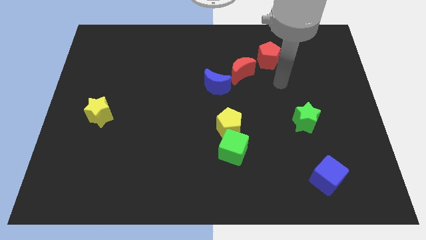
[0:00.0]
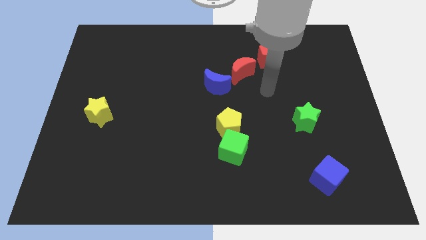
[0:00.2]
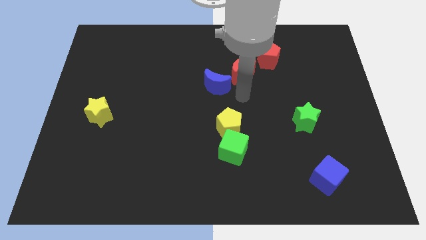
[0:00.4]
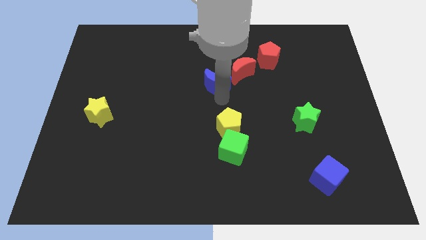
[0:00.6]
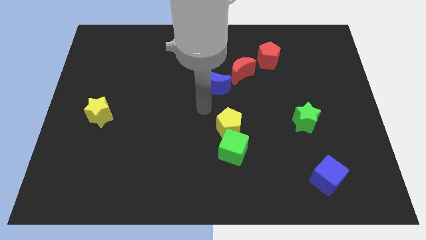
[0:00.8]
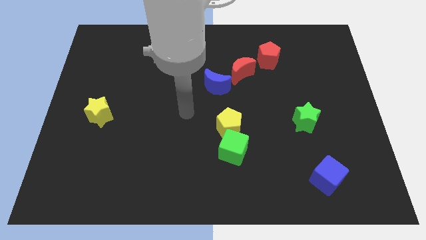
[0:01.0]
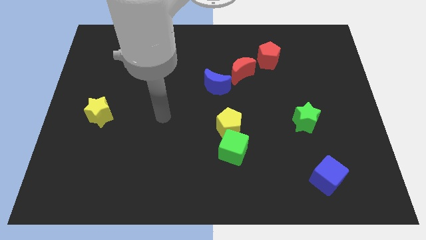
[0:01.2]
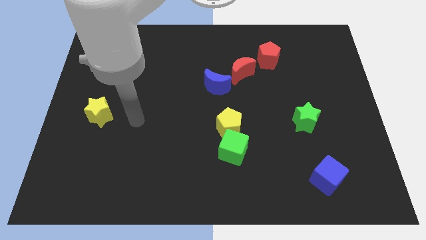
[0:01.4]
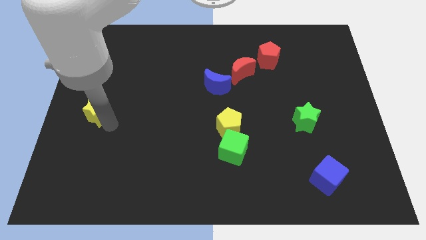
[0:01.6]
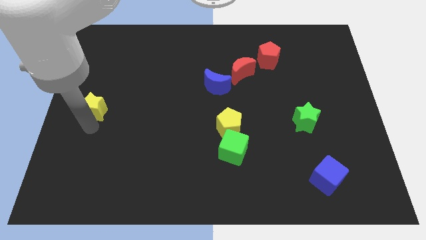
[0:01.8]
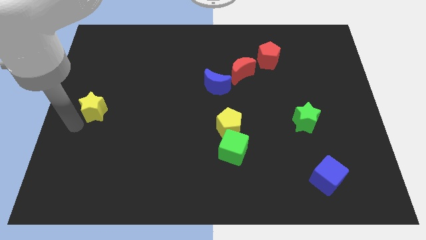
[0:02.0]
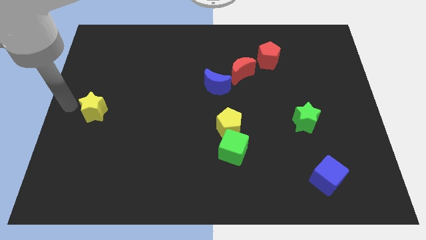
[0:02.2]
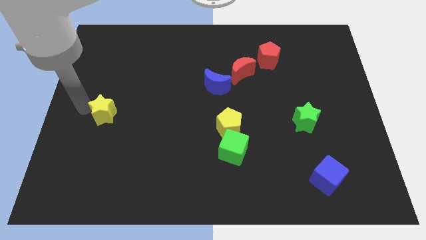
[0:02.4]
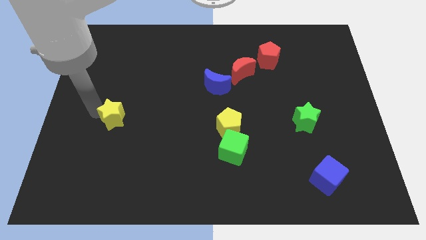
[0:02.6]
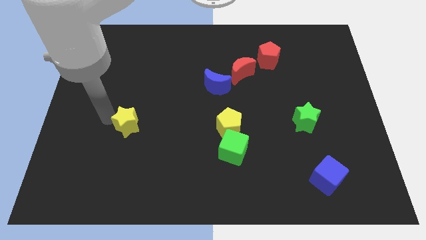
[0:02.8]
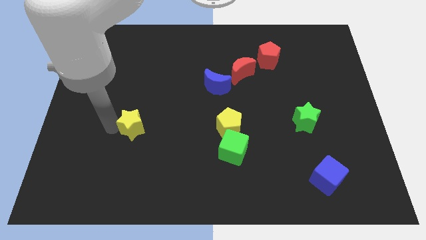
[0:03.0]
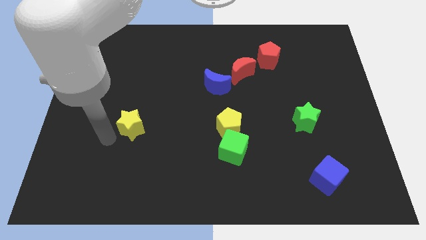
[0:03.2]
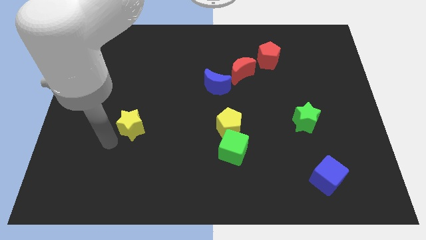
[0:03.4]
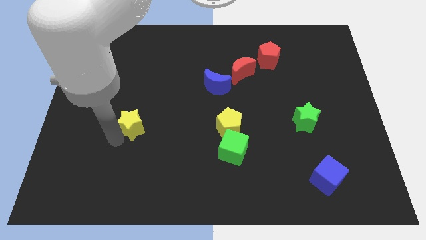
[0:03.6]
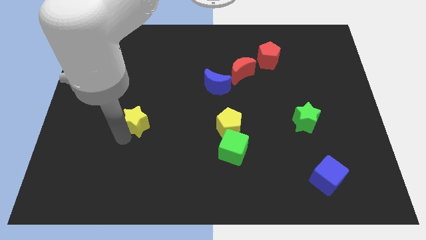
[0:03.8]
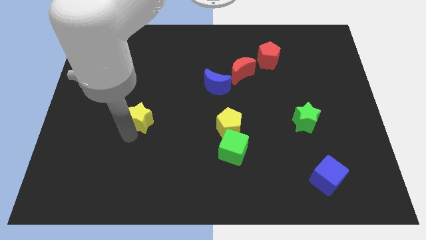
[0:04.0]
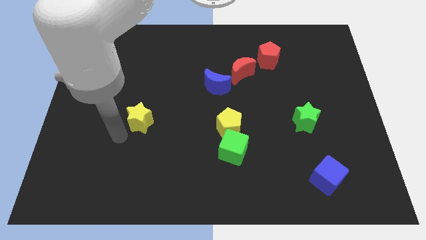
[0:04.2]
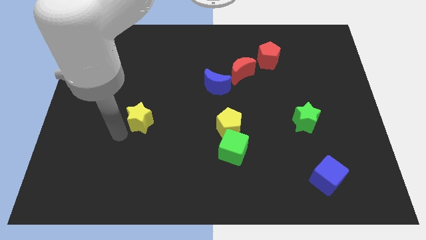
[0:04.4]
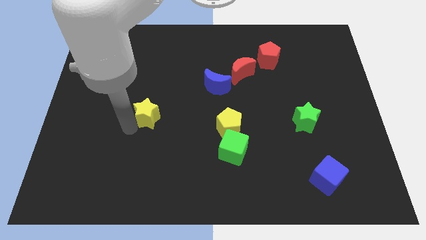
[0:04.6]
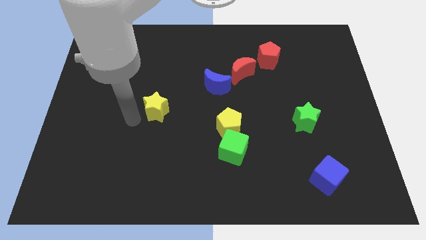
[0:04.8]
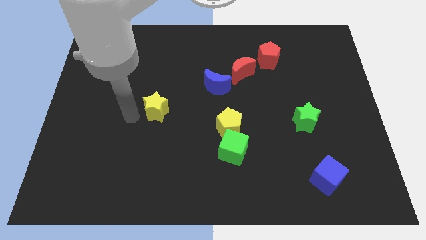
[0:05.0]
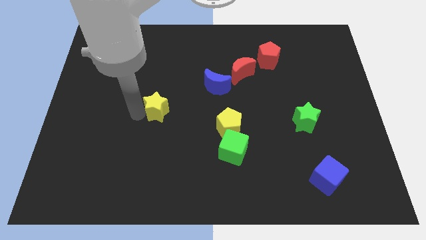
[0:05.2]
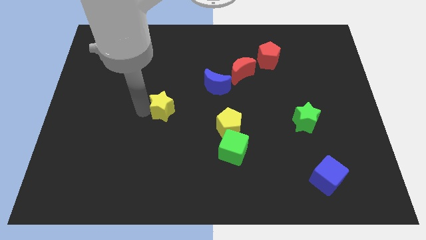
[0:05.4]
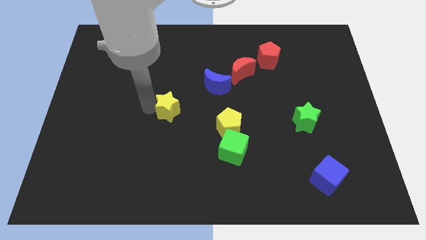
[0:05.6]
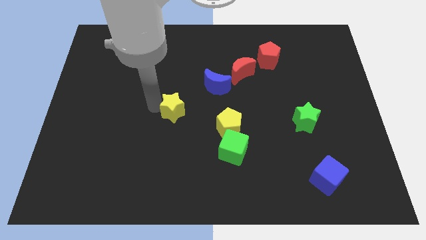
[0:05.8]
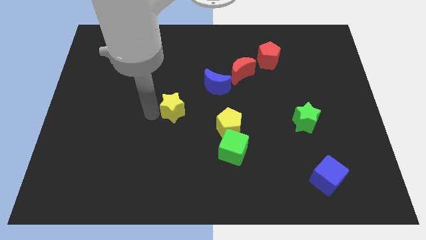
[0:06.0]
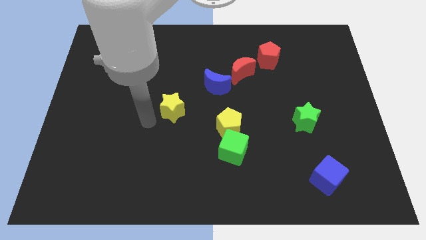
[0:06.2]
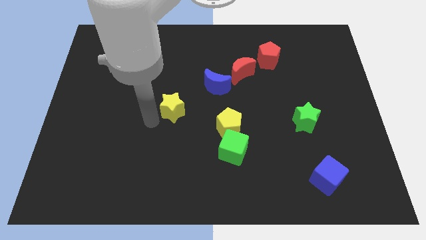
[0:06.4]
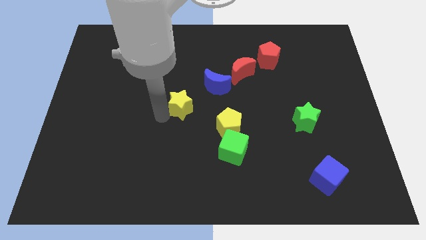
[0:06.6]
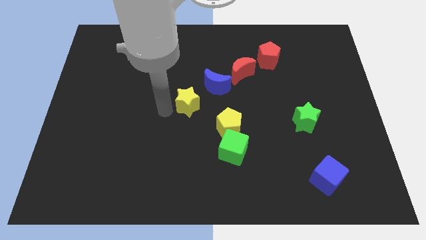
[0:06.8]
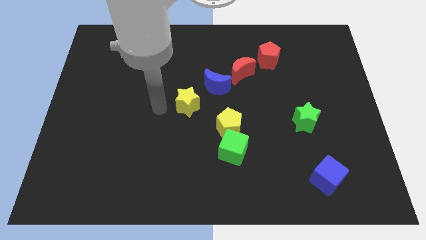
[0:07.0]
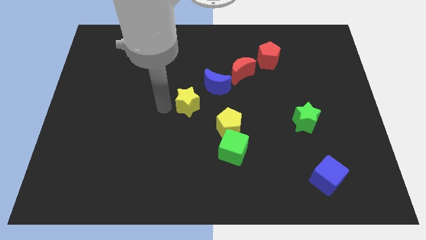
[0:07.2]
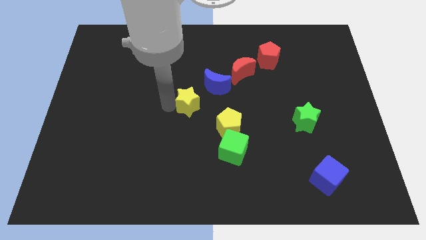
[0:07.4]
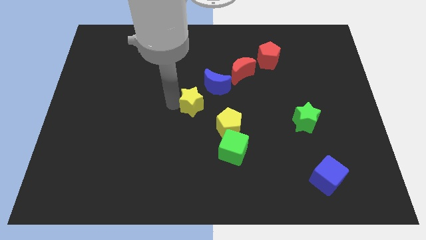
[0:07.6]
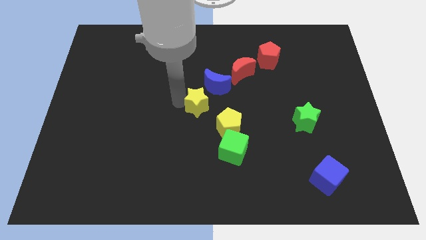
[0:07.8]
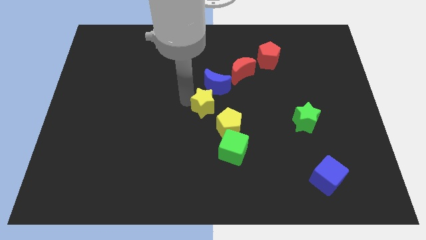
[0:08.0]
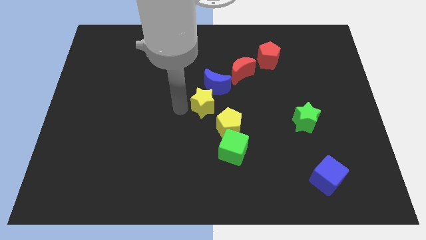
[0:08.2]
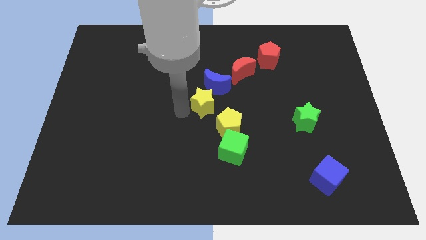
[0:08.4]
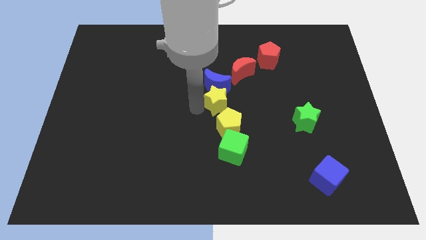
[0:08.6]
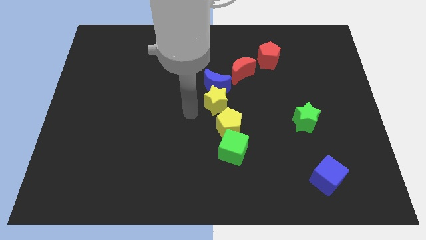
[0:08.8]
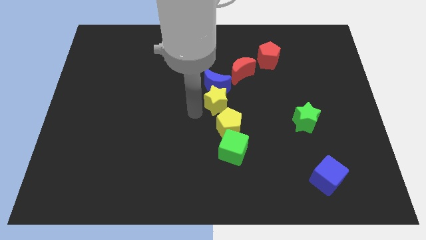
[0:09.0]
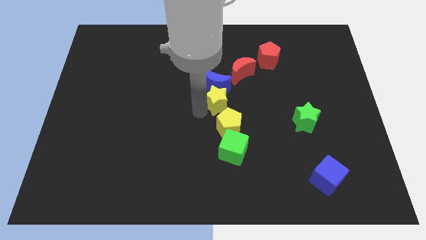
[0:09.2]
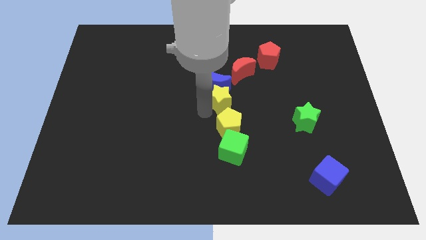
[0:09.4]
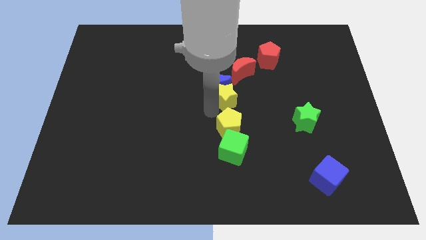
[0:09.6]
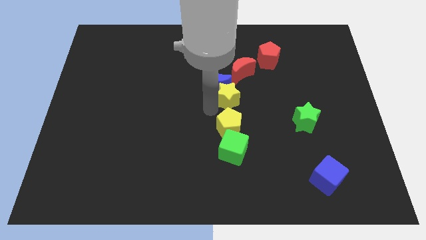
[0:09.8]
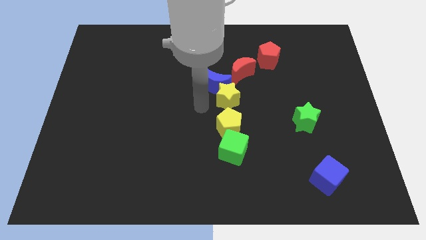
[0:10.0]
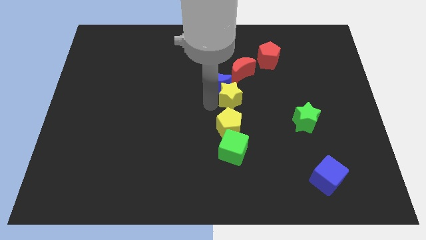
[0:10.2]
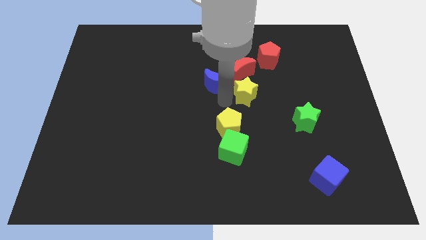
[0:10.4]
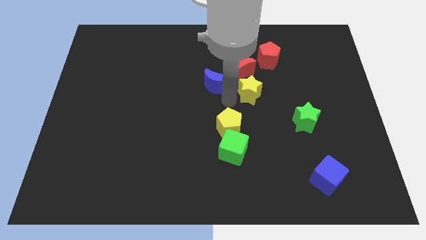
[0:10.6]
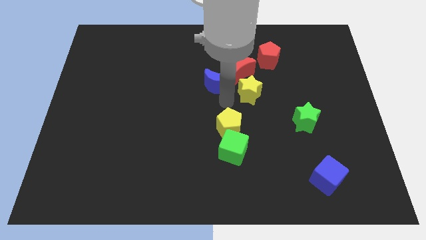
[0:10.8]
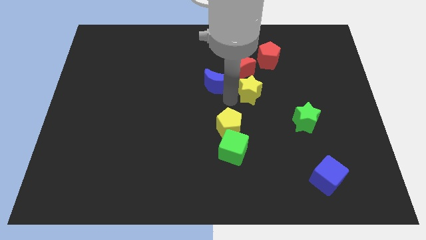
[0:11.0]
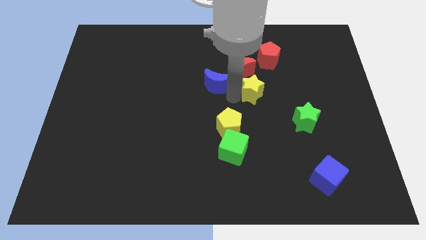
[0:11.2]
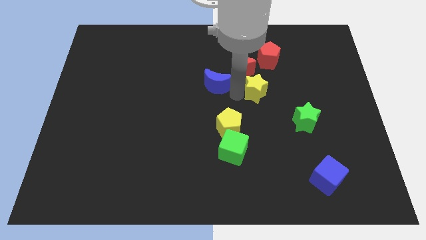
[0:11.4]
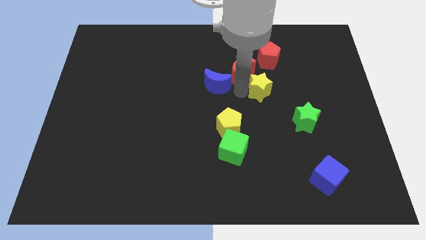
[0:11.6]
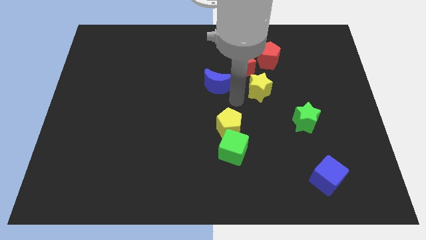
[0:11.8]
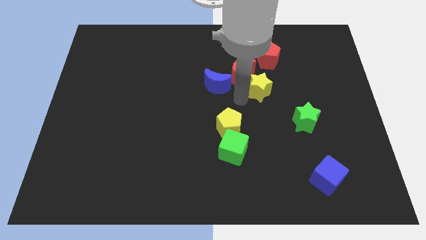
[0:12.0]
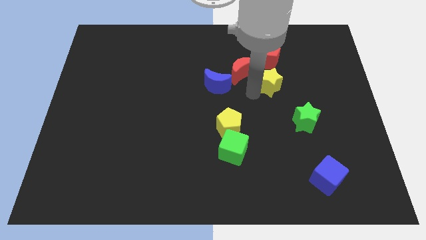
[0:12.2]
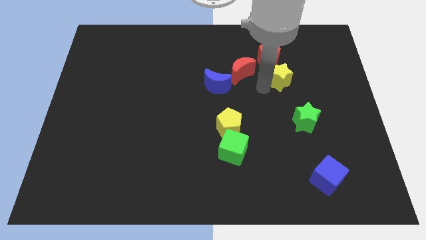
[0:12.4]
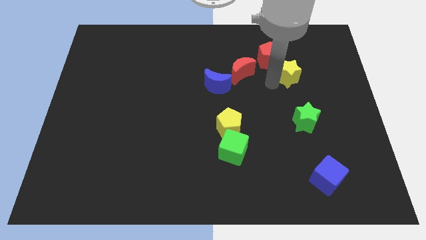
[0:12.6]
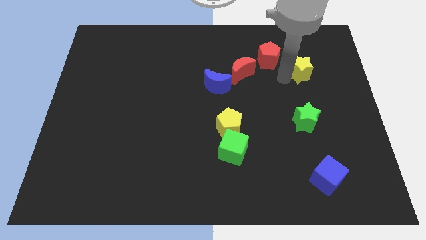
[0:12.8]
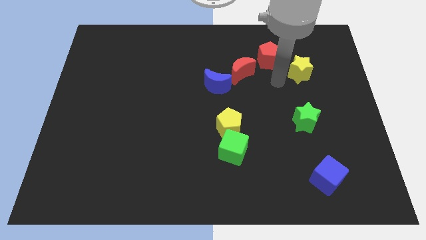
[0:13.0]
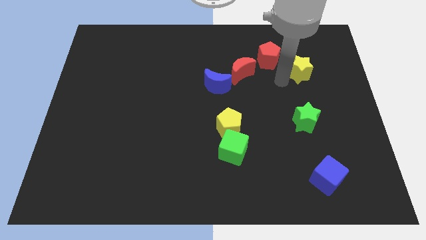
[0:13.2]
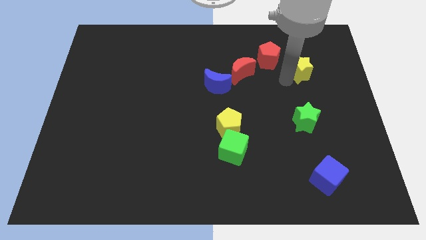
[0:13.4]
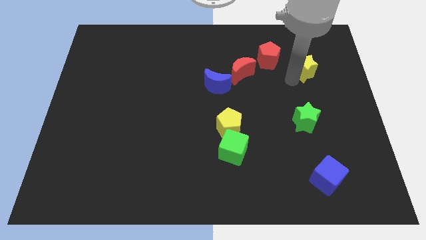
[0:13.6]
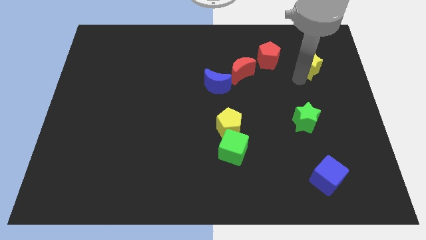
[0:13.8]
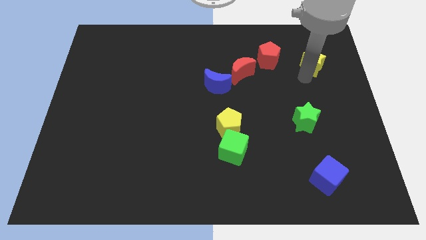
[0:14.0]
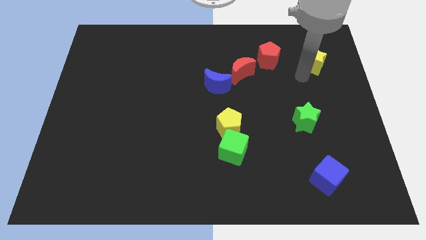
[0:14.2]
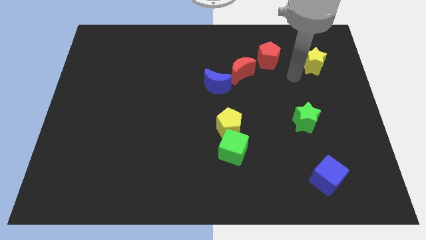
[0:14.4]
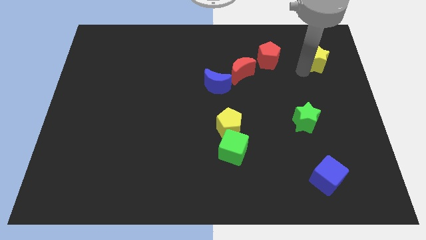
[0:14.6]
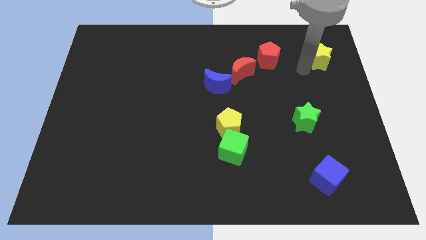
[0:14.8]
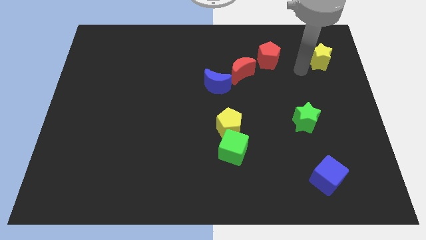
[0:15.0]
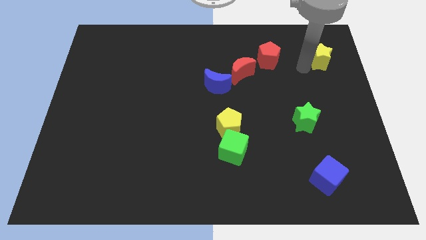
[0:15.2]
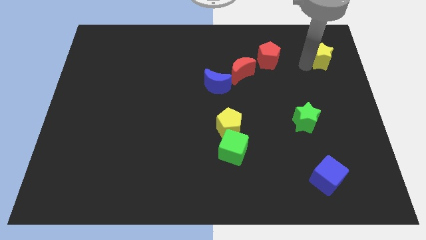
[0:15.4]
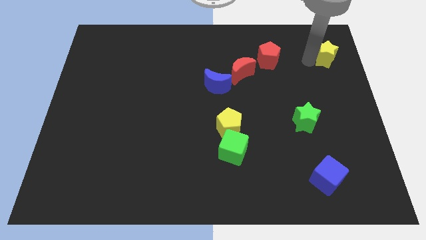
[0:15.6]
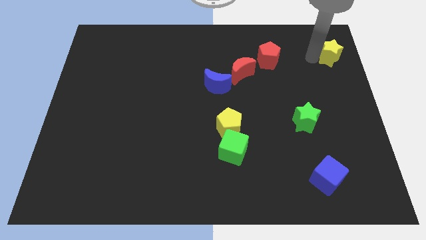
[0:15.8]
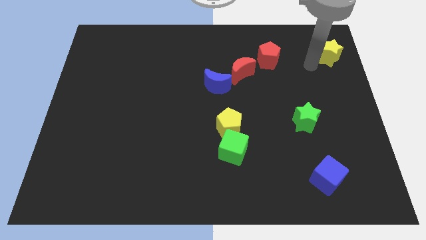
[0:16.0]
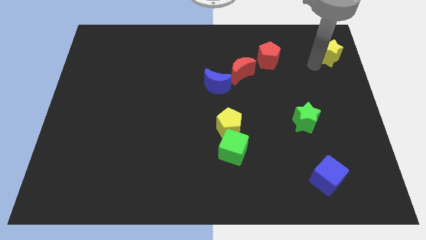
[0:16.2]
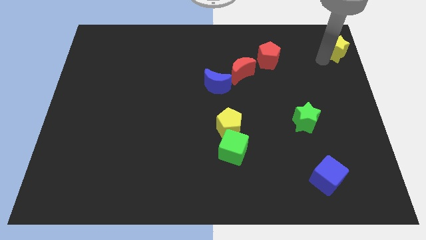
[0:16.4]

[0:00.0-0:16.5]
push the yellow star to the top right corner
